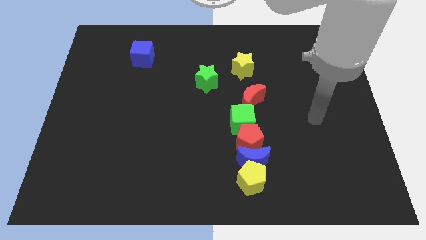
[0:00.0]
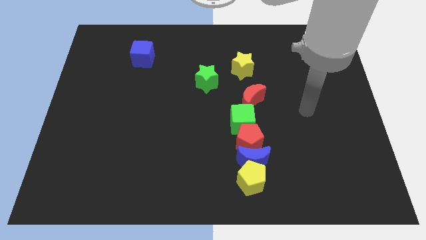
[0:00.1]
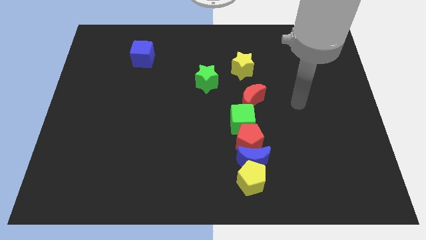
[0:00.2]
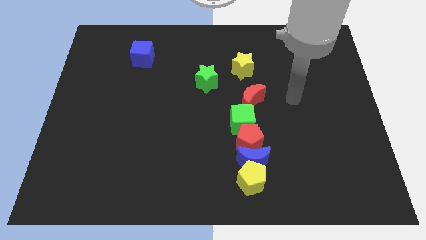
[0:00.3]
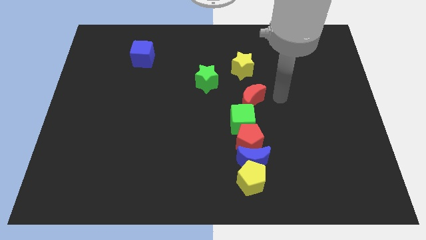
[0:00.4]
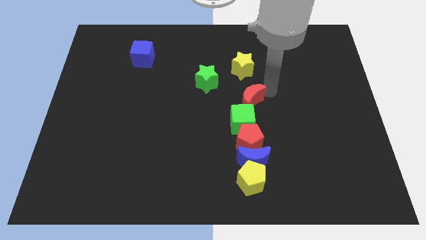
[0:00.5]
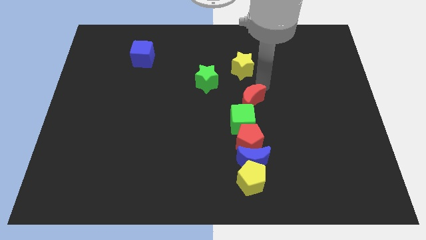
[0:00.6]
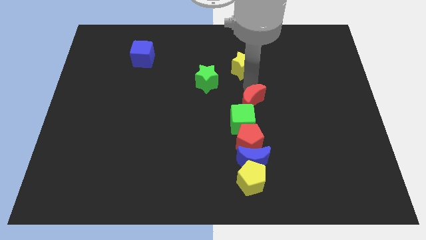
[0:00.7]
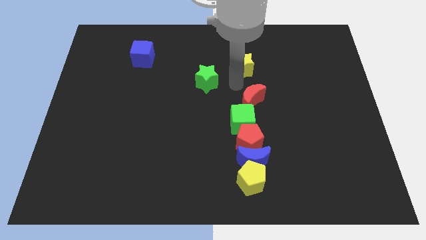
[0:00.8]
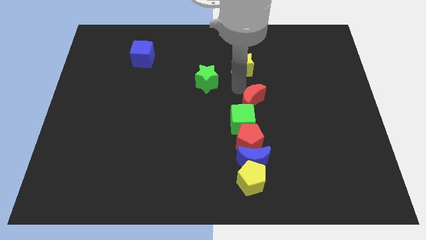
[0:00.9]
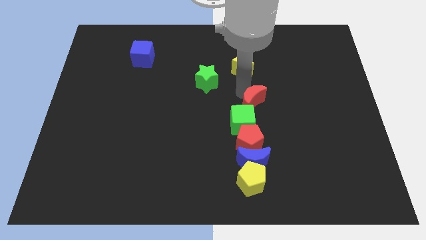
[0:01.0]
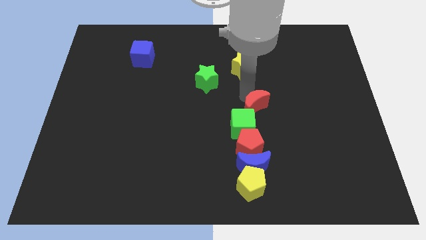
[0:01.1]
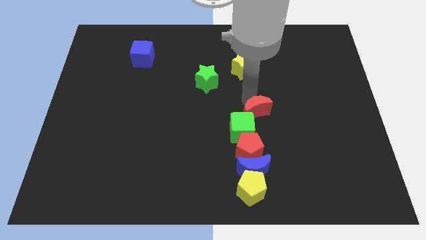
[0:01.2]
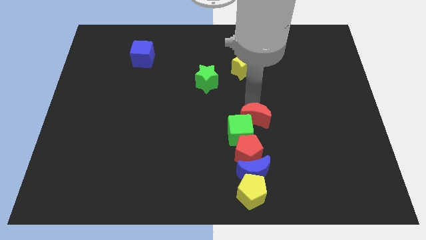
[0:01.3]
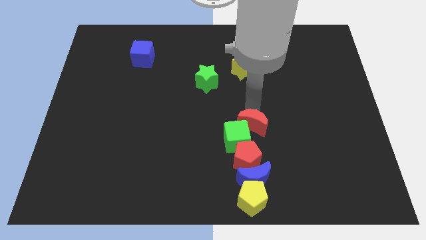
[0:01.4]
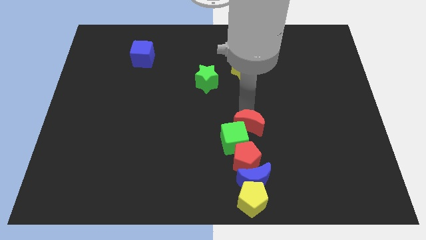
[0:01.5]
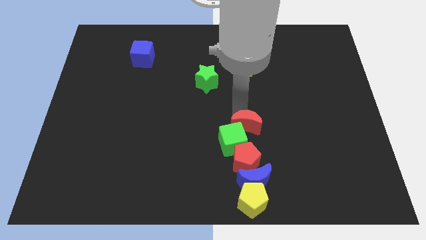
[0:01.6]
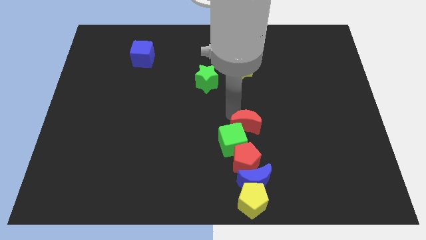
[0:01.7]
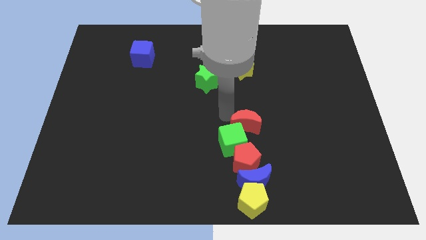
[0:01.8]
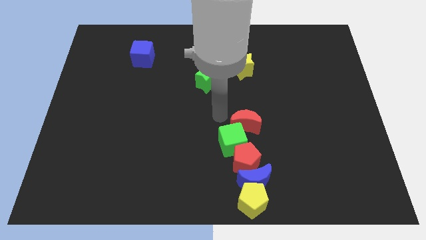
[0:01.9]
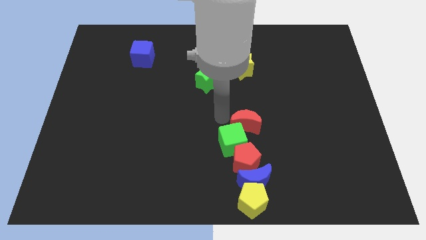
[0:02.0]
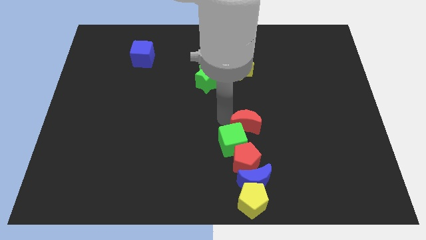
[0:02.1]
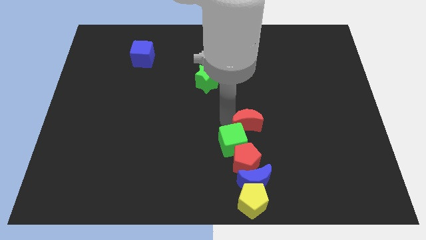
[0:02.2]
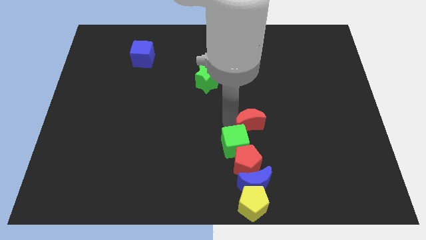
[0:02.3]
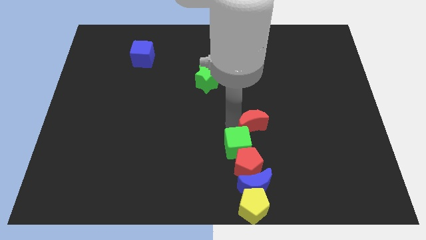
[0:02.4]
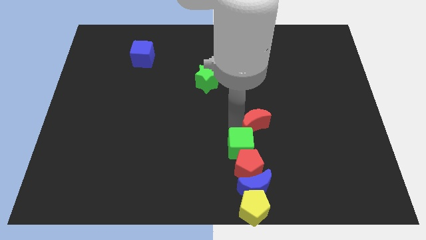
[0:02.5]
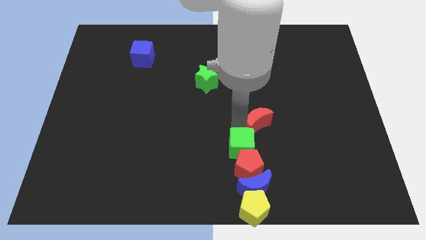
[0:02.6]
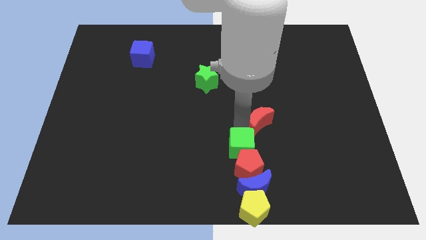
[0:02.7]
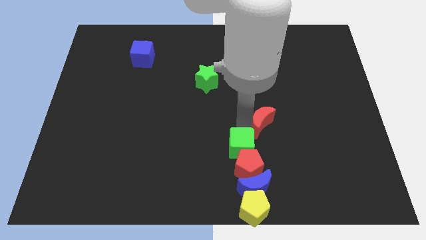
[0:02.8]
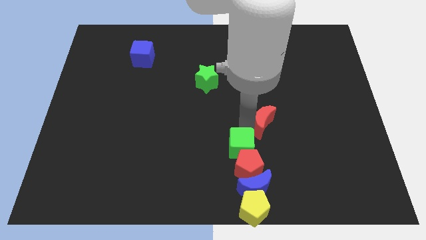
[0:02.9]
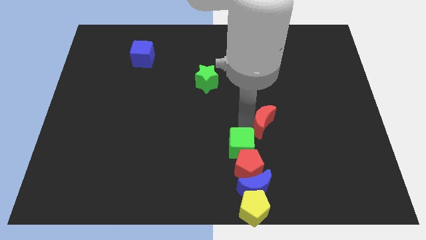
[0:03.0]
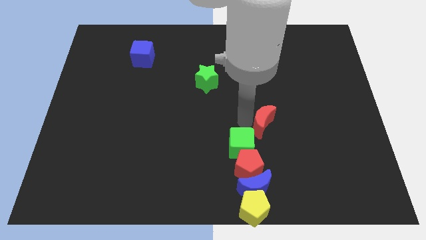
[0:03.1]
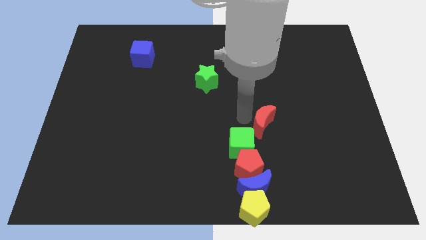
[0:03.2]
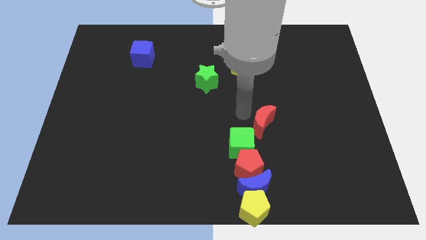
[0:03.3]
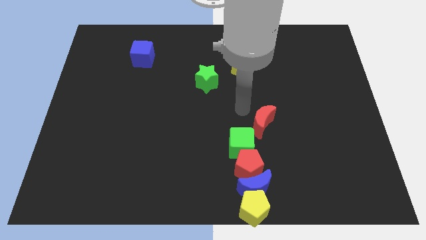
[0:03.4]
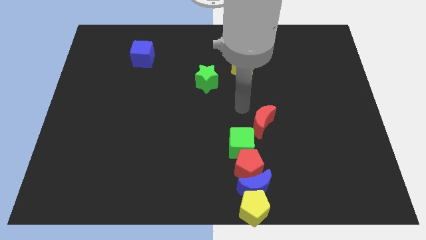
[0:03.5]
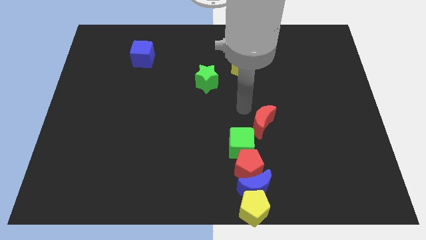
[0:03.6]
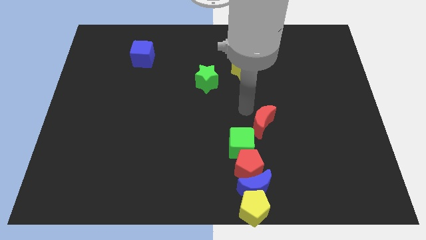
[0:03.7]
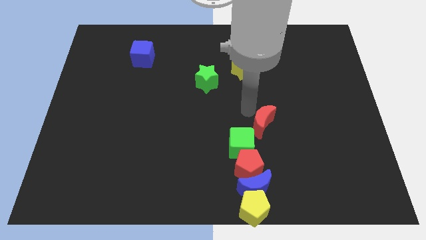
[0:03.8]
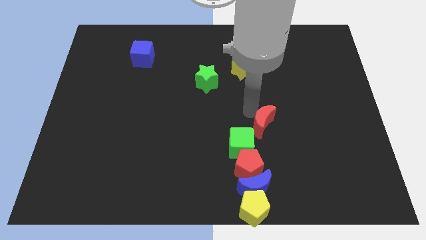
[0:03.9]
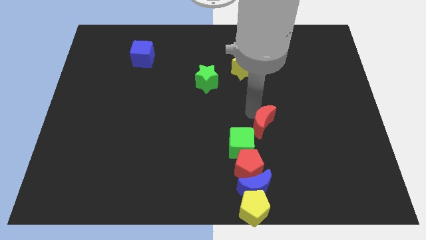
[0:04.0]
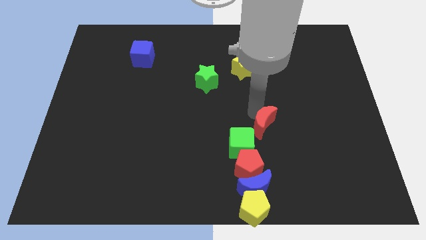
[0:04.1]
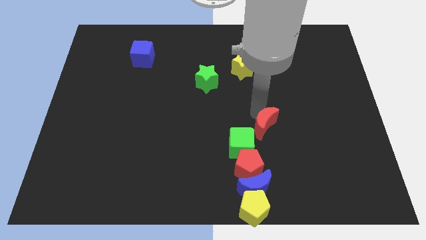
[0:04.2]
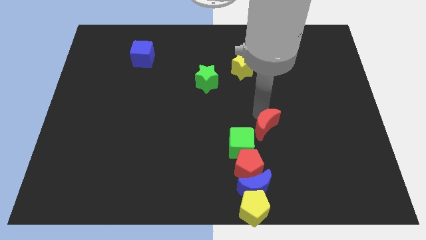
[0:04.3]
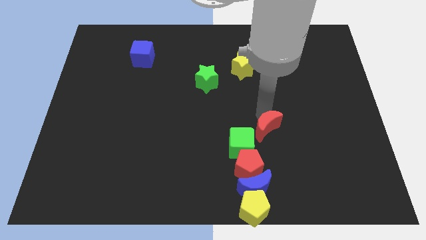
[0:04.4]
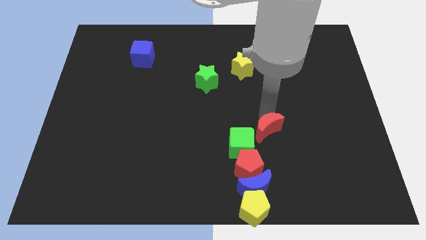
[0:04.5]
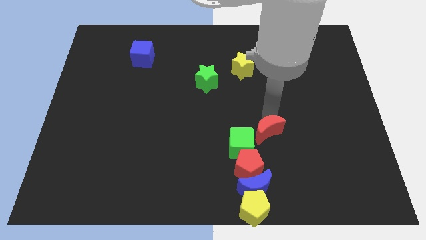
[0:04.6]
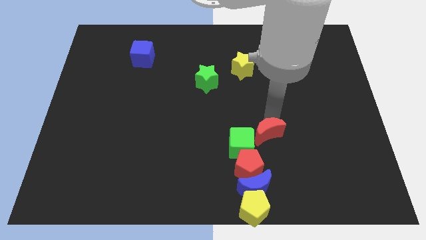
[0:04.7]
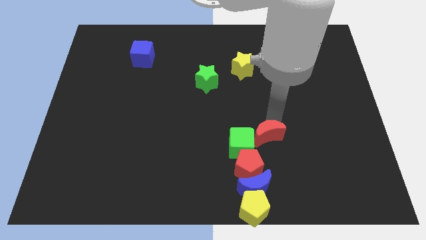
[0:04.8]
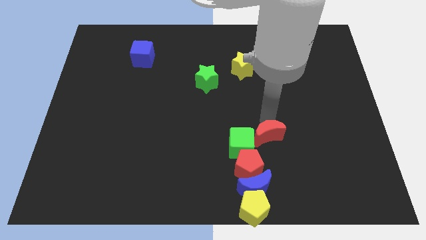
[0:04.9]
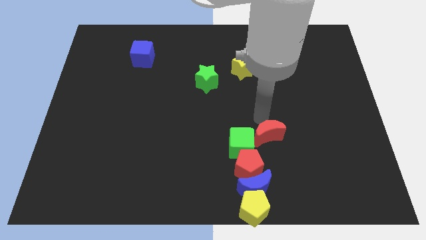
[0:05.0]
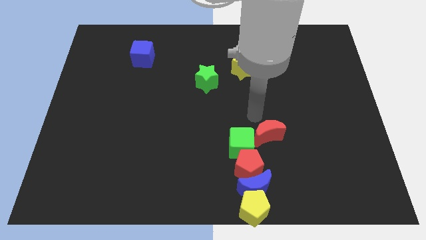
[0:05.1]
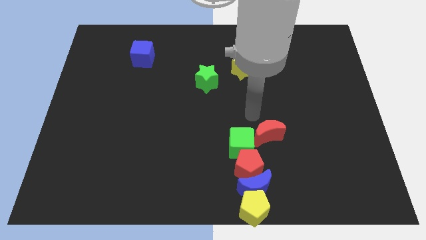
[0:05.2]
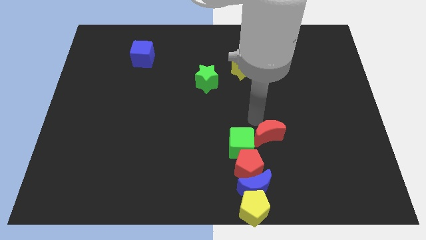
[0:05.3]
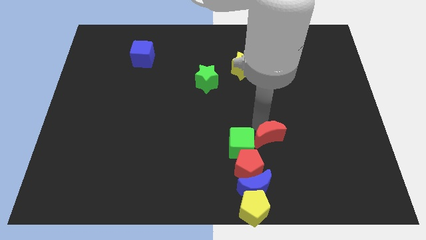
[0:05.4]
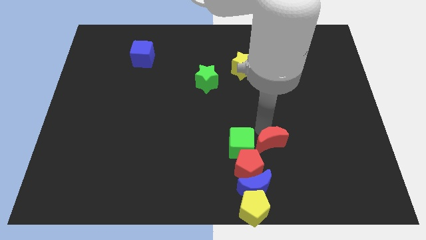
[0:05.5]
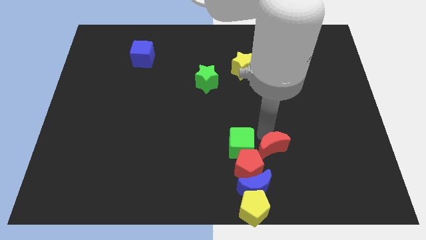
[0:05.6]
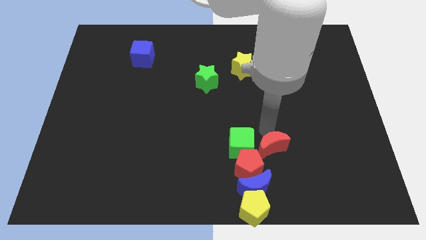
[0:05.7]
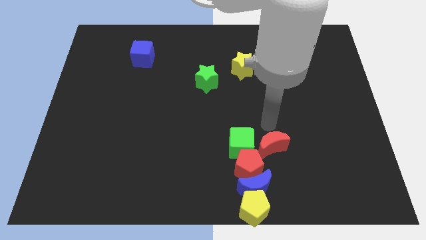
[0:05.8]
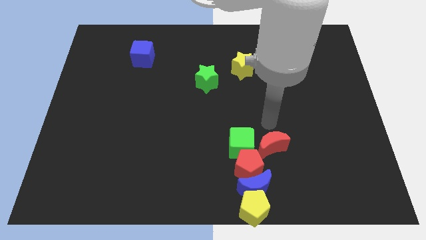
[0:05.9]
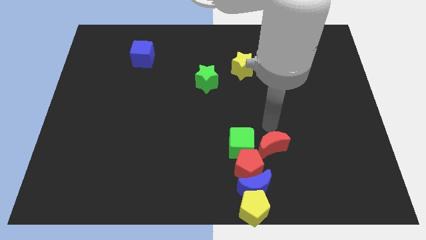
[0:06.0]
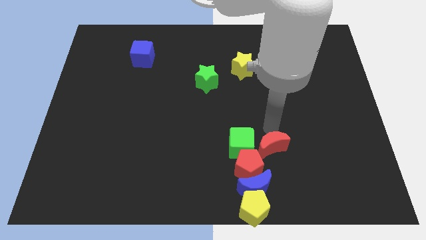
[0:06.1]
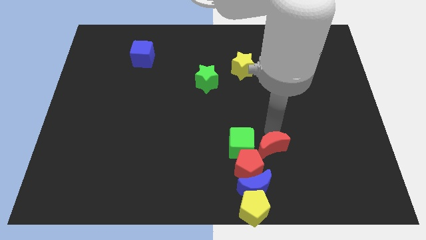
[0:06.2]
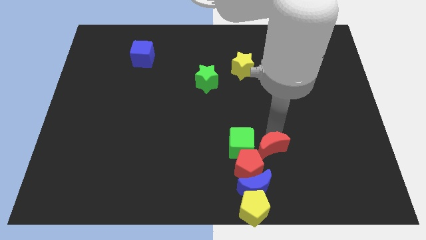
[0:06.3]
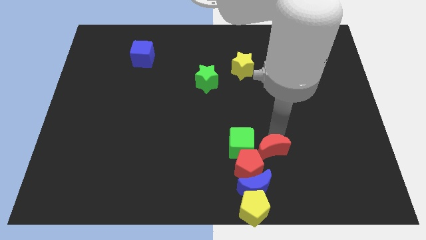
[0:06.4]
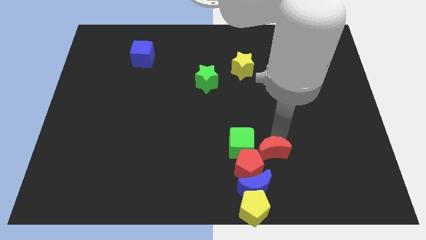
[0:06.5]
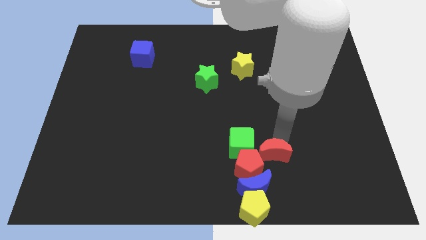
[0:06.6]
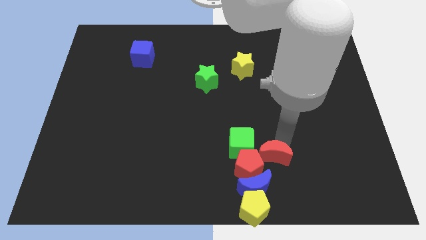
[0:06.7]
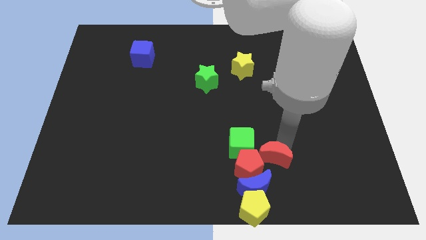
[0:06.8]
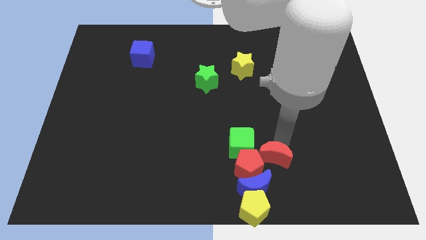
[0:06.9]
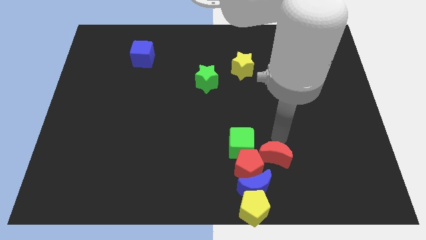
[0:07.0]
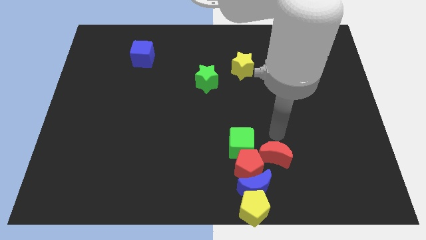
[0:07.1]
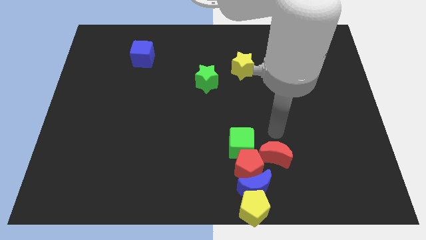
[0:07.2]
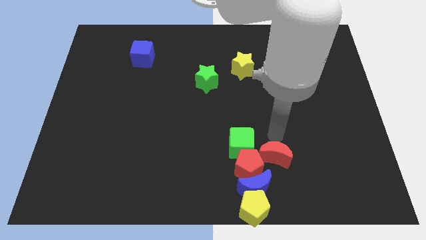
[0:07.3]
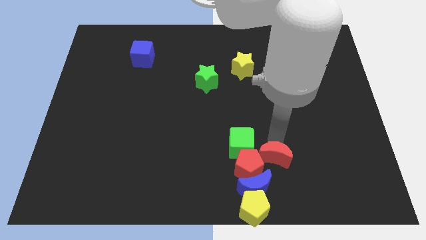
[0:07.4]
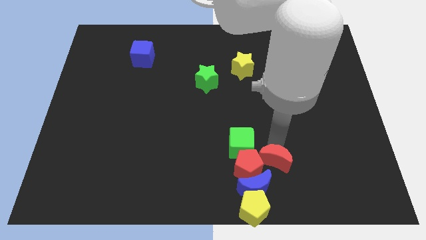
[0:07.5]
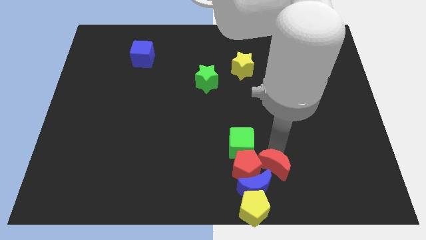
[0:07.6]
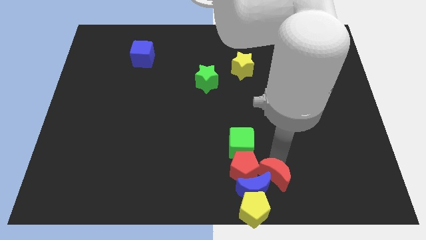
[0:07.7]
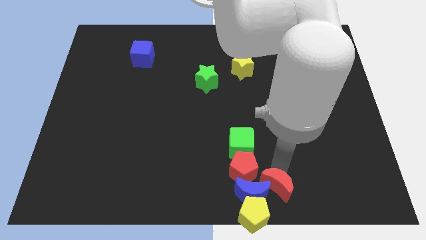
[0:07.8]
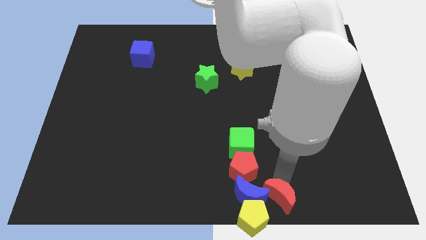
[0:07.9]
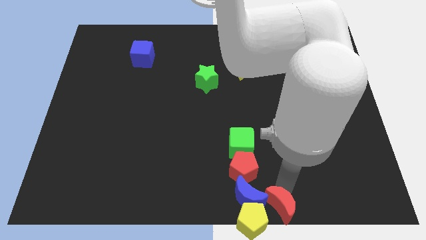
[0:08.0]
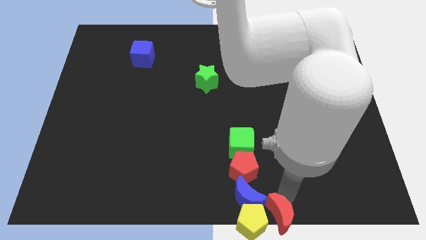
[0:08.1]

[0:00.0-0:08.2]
move the red moon next to the yellow pentagon

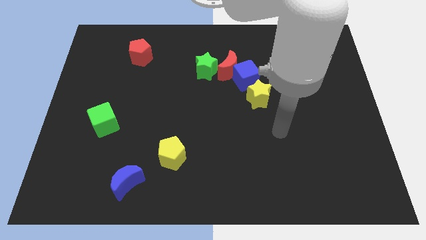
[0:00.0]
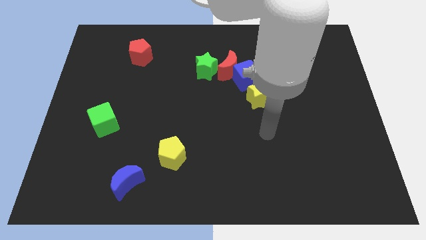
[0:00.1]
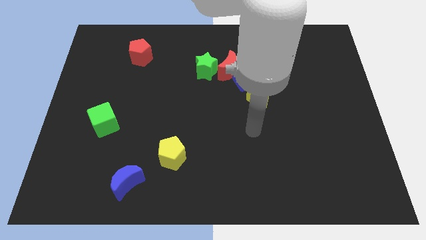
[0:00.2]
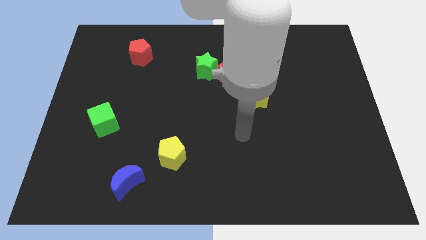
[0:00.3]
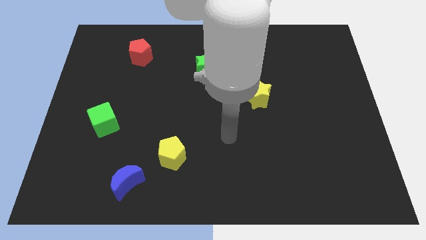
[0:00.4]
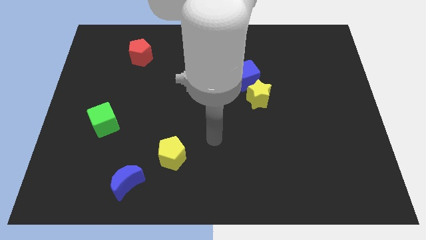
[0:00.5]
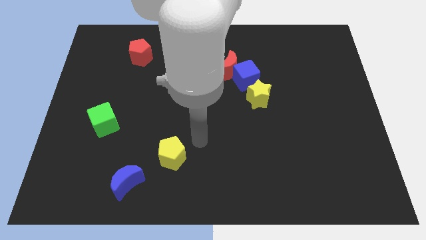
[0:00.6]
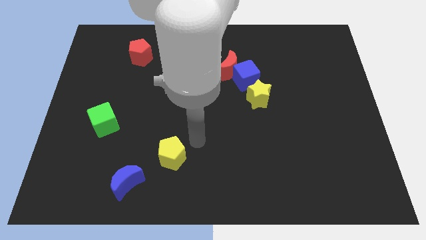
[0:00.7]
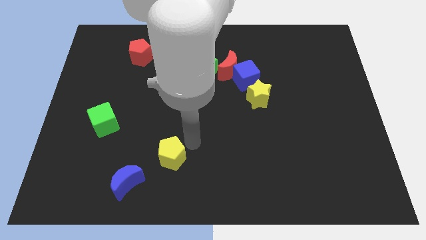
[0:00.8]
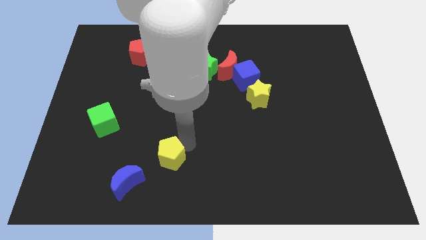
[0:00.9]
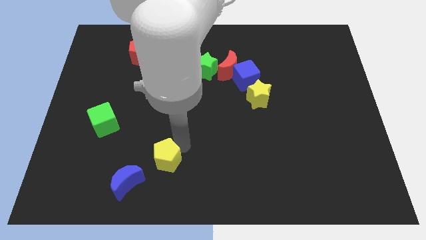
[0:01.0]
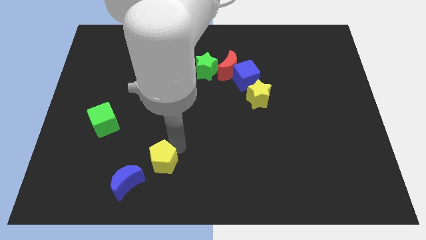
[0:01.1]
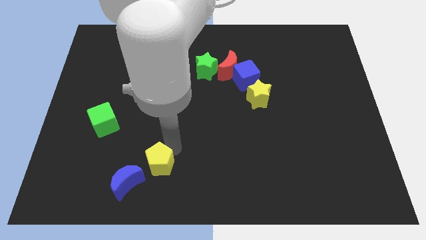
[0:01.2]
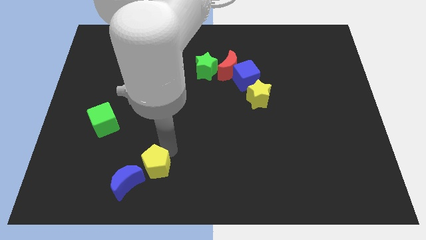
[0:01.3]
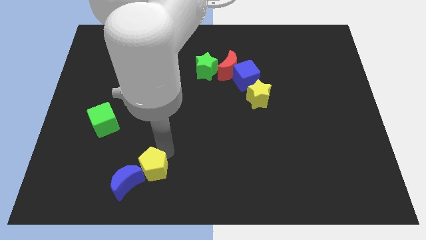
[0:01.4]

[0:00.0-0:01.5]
push the yellow pentagon to the blue moon
